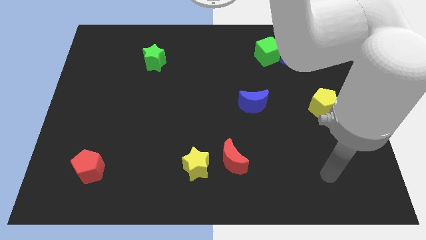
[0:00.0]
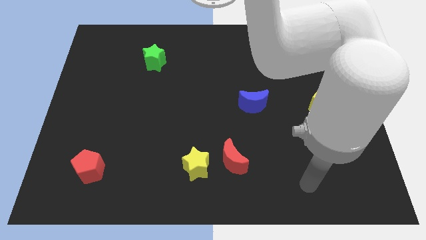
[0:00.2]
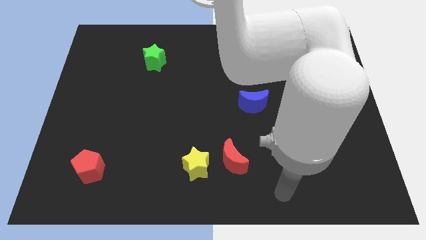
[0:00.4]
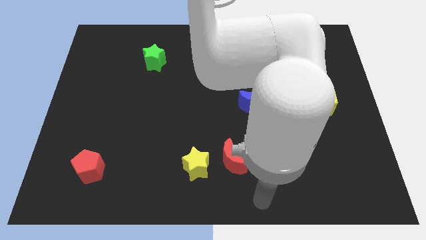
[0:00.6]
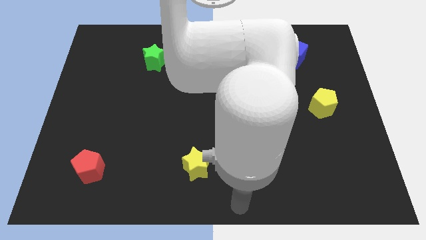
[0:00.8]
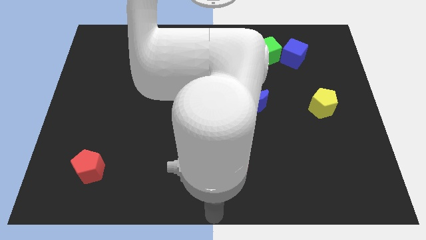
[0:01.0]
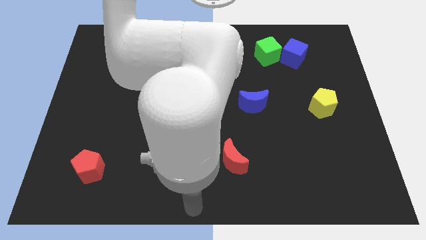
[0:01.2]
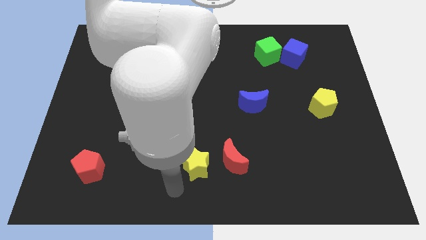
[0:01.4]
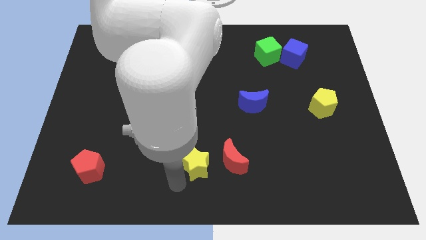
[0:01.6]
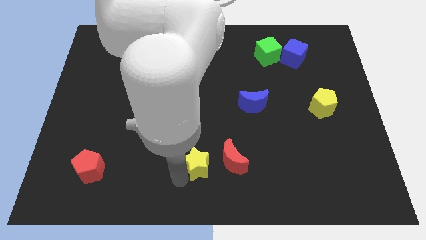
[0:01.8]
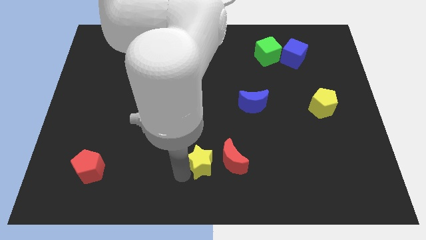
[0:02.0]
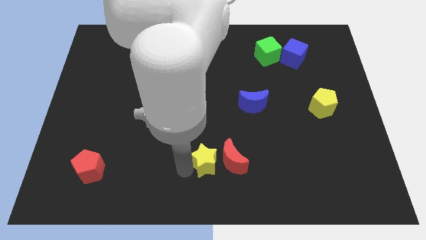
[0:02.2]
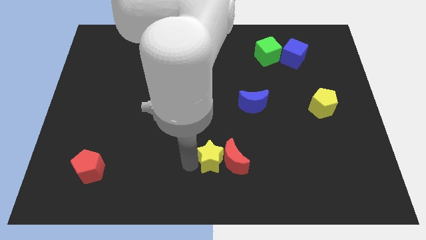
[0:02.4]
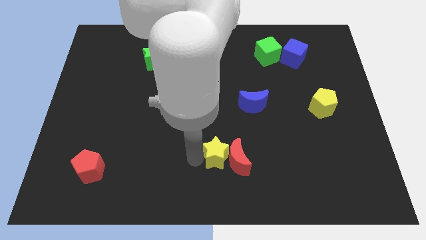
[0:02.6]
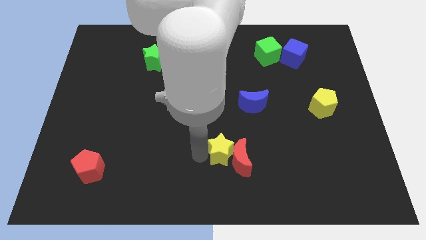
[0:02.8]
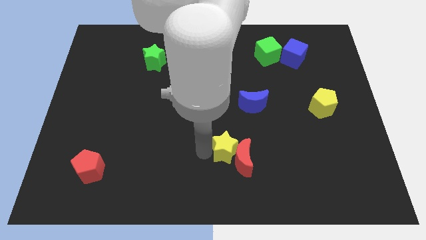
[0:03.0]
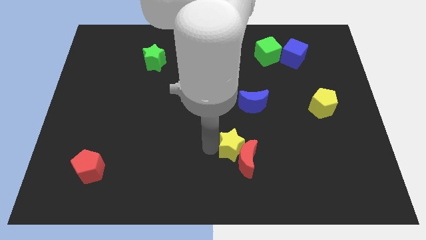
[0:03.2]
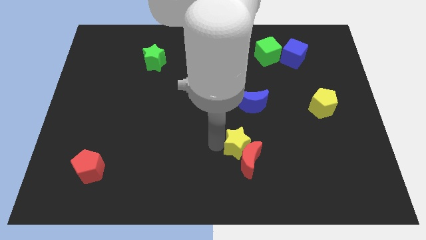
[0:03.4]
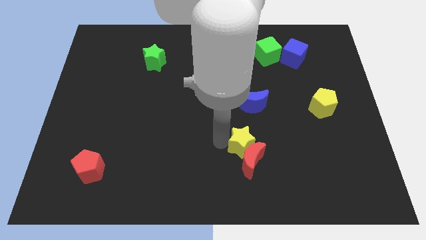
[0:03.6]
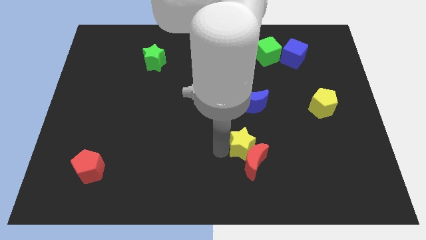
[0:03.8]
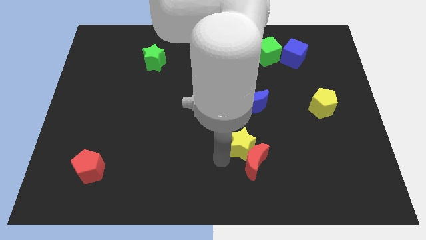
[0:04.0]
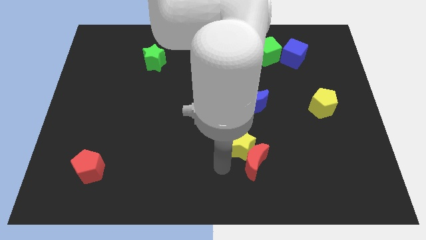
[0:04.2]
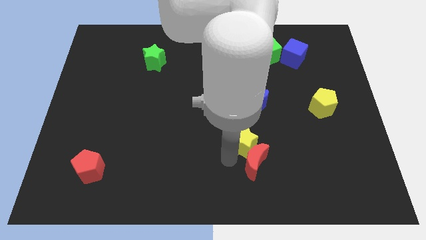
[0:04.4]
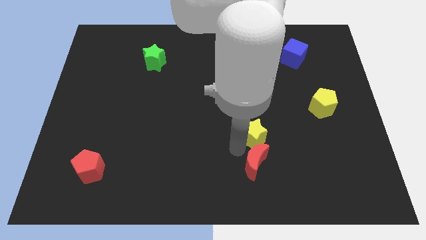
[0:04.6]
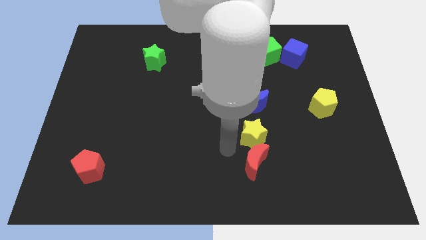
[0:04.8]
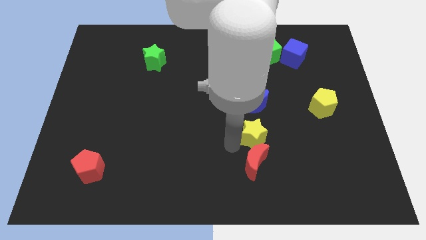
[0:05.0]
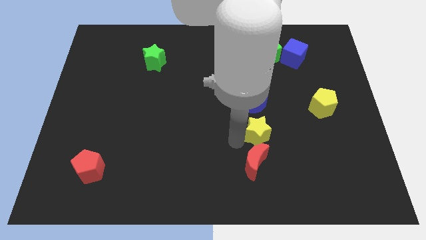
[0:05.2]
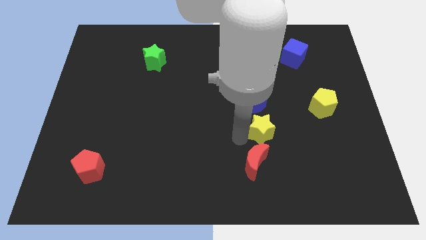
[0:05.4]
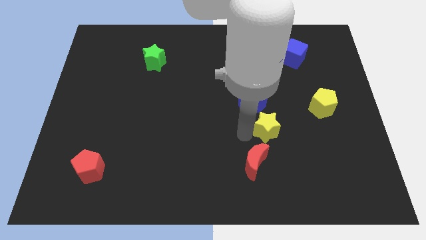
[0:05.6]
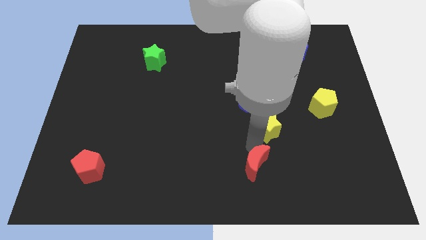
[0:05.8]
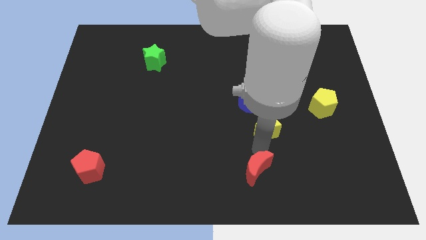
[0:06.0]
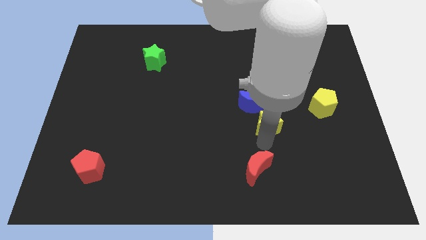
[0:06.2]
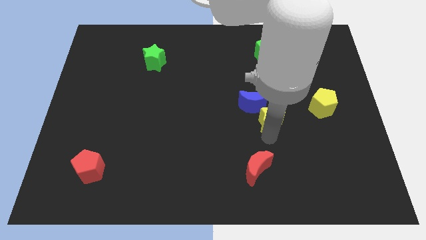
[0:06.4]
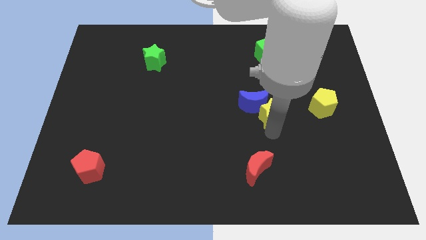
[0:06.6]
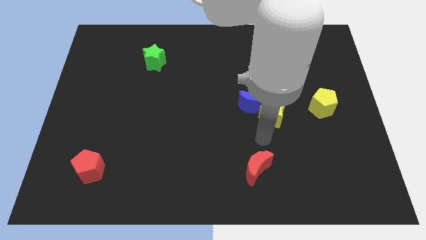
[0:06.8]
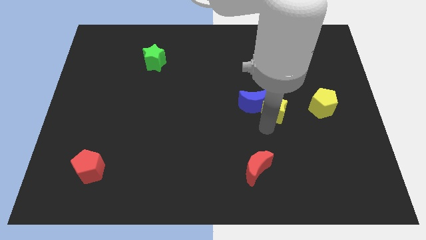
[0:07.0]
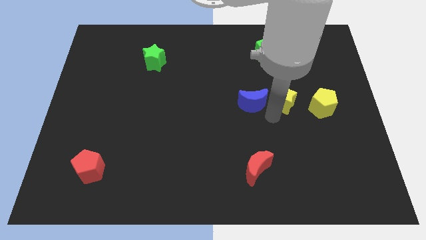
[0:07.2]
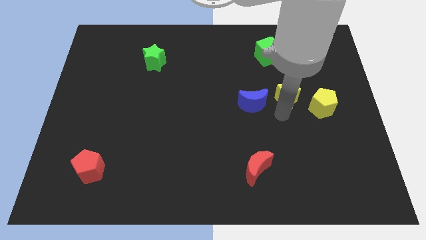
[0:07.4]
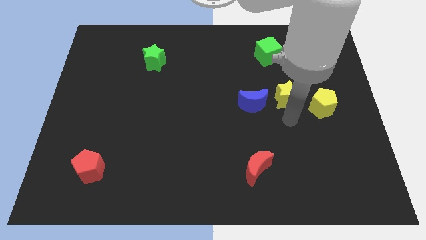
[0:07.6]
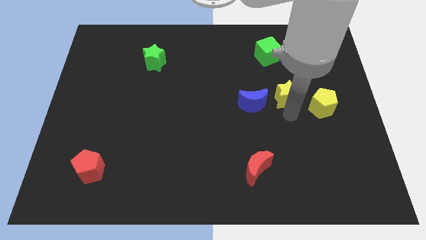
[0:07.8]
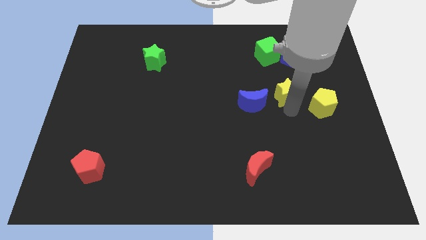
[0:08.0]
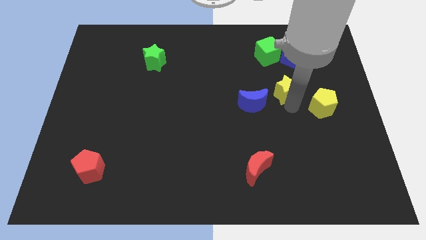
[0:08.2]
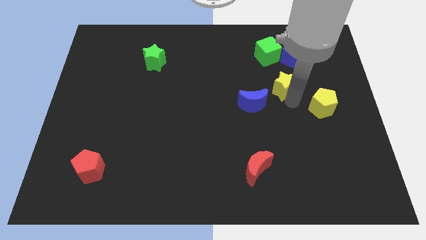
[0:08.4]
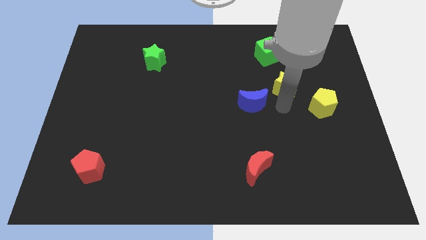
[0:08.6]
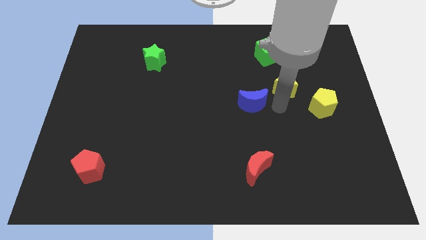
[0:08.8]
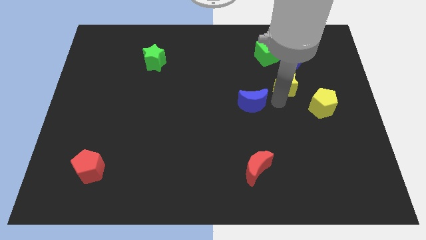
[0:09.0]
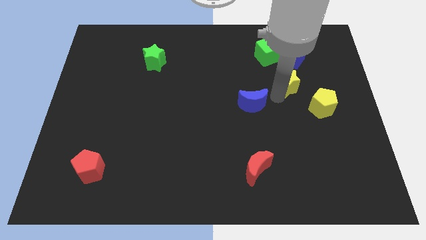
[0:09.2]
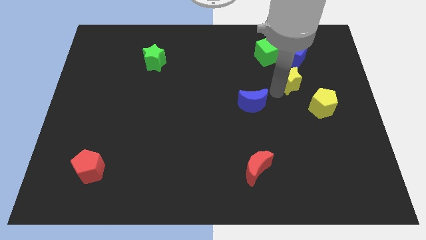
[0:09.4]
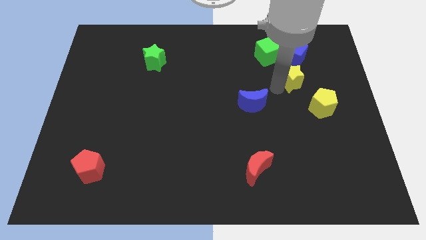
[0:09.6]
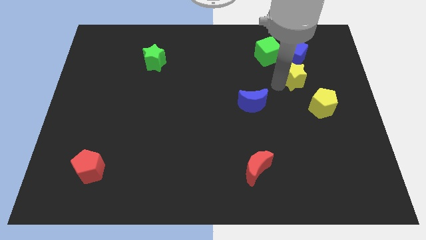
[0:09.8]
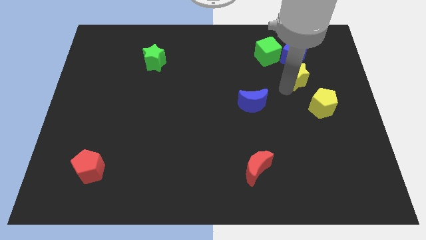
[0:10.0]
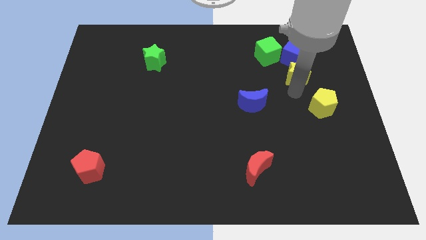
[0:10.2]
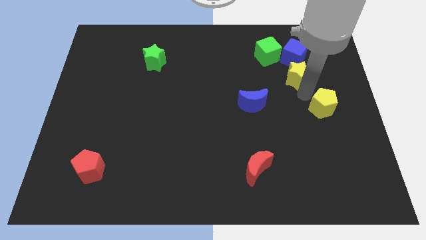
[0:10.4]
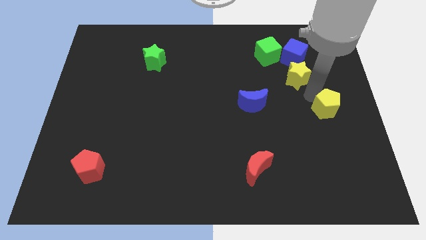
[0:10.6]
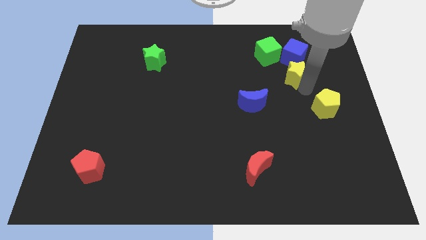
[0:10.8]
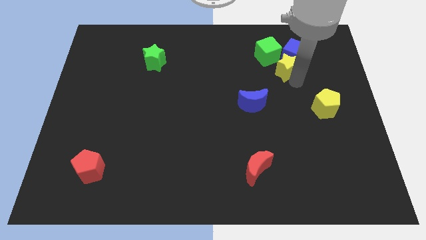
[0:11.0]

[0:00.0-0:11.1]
slide the yellow star to the blue cube

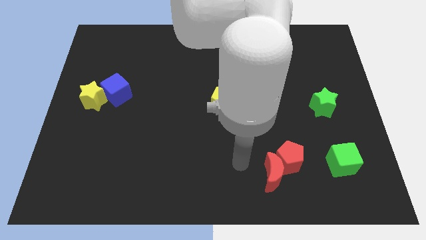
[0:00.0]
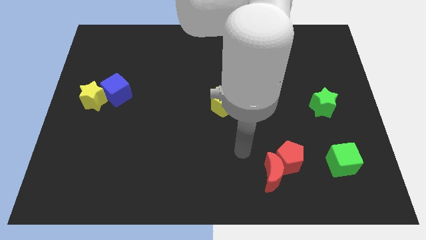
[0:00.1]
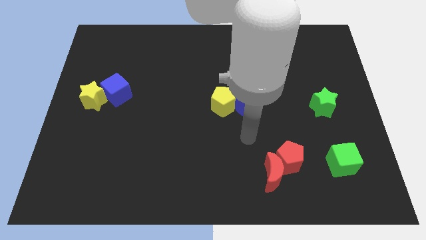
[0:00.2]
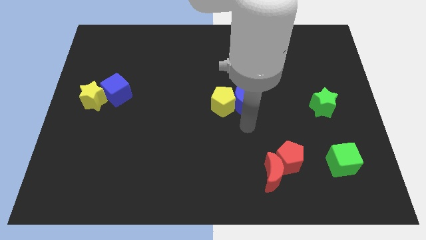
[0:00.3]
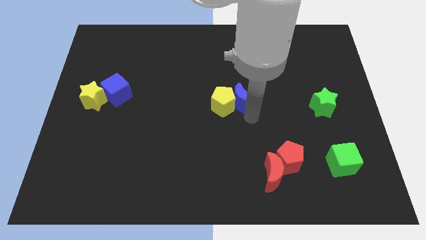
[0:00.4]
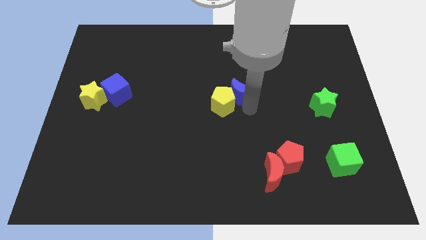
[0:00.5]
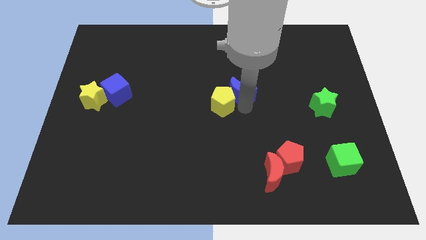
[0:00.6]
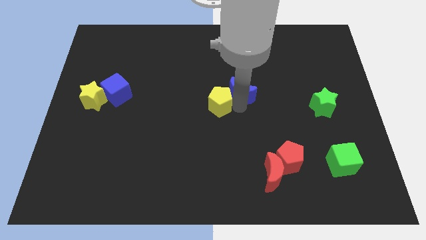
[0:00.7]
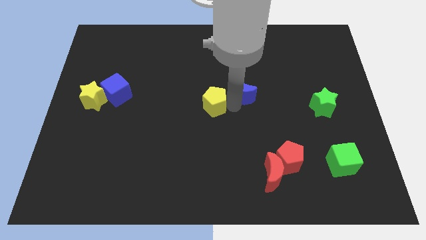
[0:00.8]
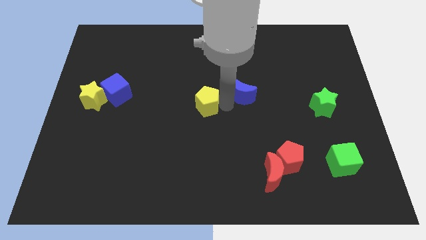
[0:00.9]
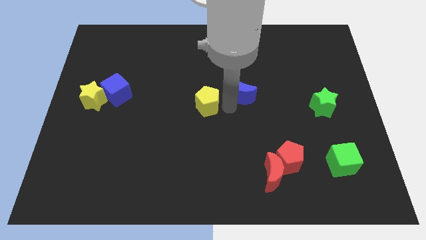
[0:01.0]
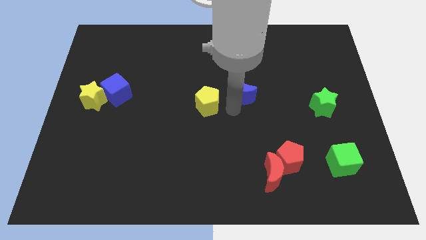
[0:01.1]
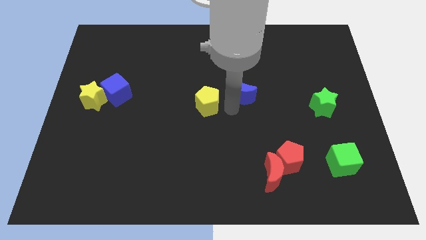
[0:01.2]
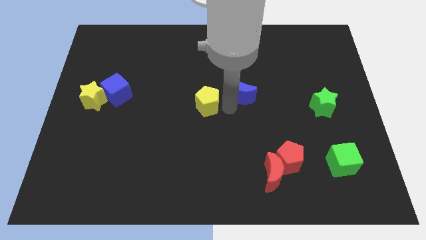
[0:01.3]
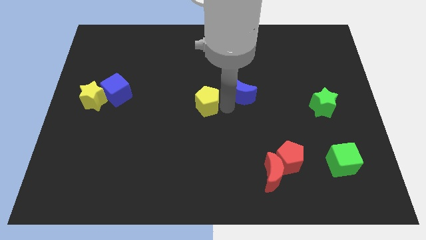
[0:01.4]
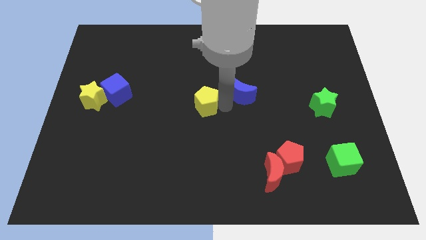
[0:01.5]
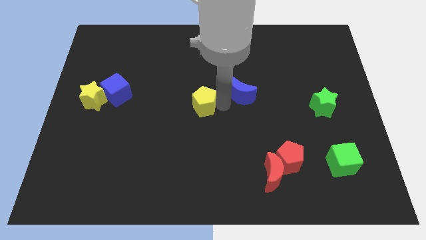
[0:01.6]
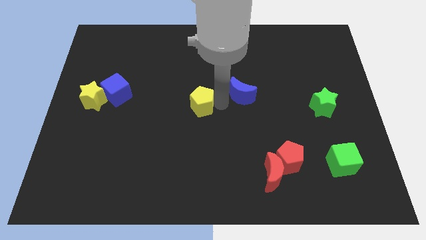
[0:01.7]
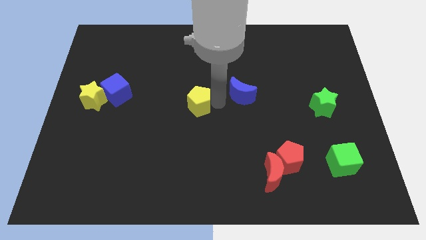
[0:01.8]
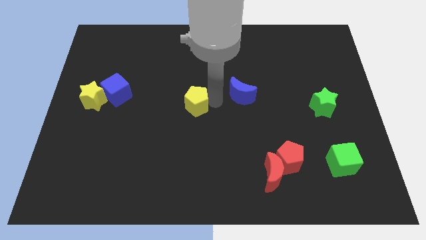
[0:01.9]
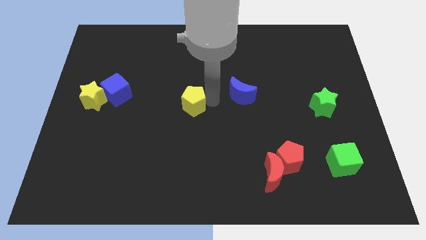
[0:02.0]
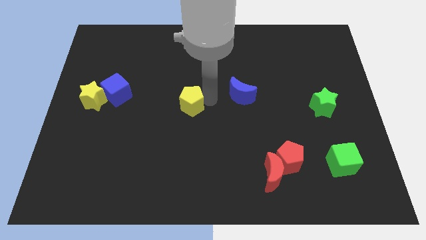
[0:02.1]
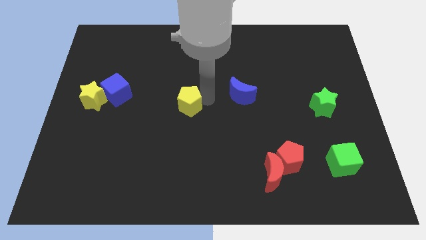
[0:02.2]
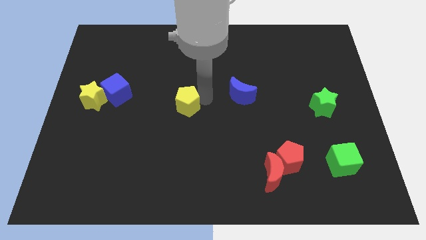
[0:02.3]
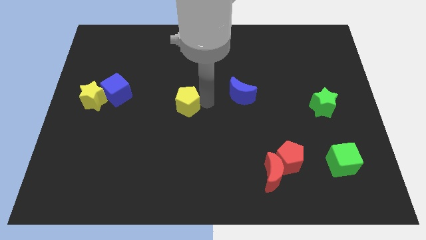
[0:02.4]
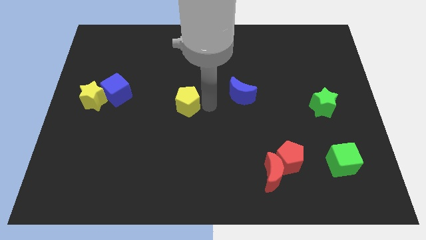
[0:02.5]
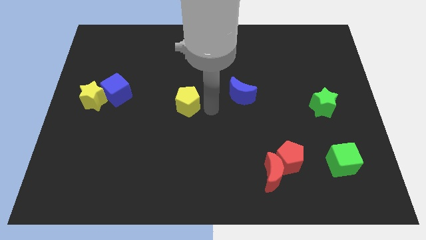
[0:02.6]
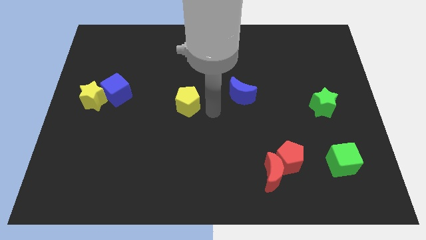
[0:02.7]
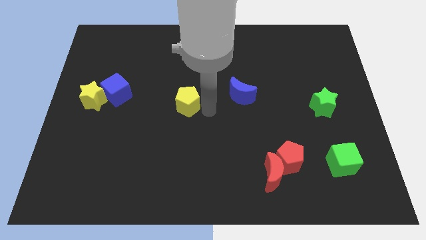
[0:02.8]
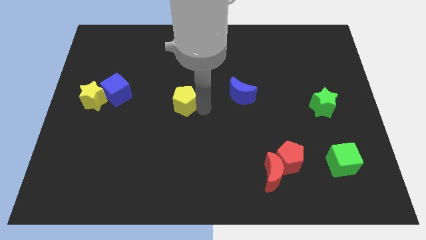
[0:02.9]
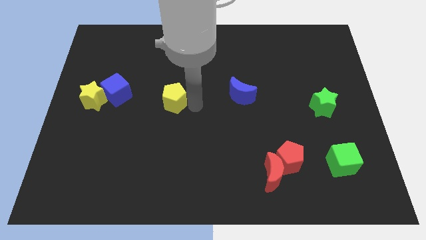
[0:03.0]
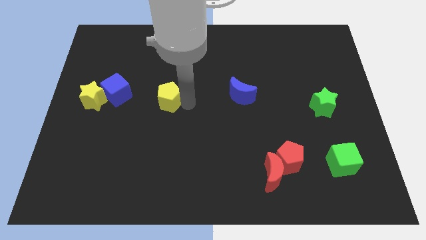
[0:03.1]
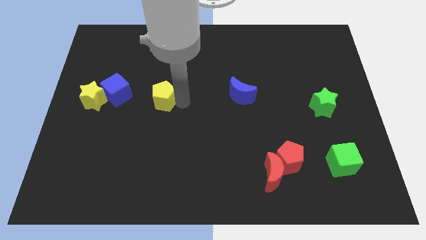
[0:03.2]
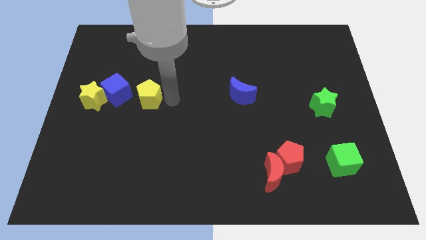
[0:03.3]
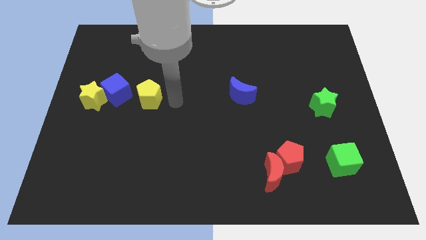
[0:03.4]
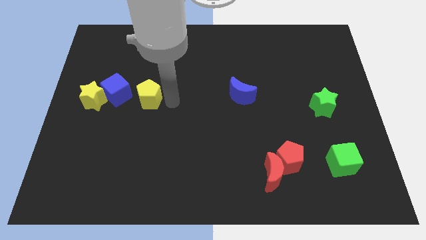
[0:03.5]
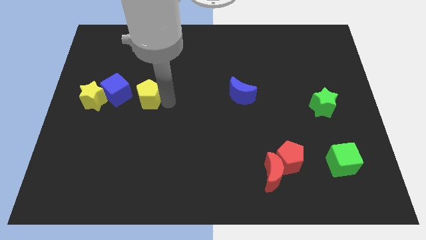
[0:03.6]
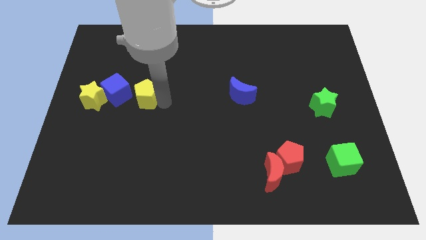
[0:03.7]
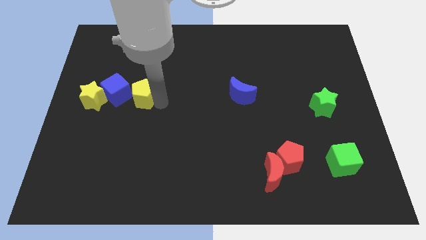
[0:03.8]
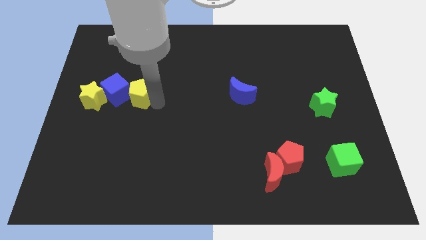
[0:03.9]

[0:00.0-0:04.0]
move the yellow pentagon towards the blue cube
